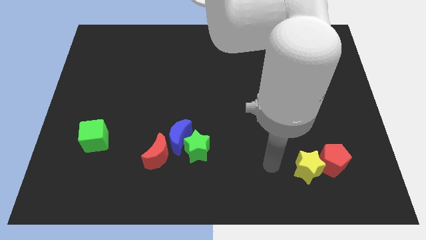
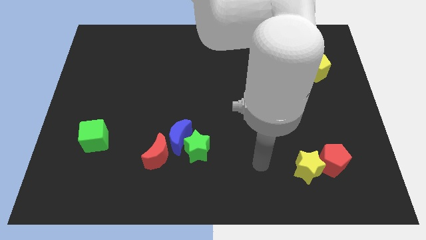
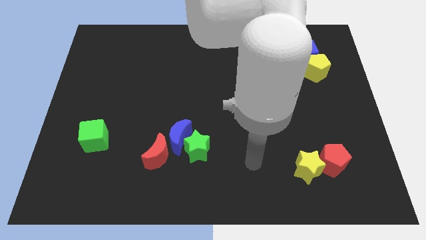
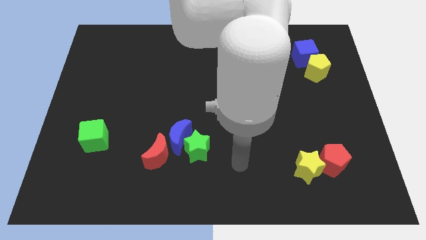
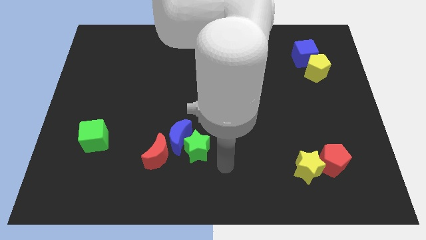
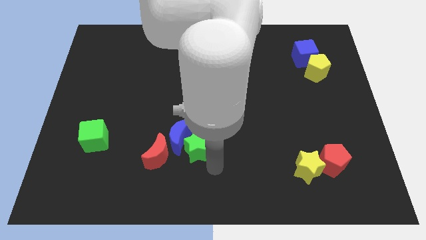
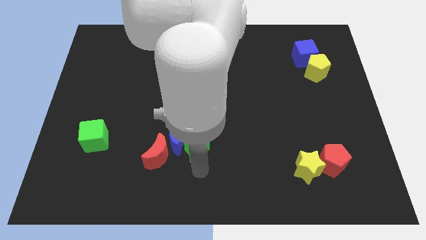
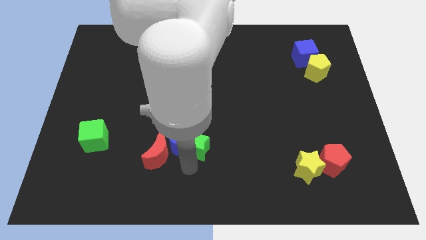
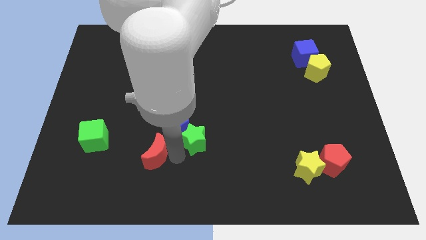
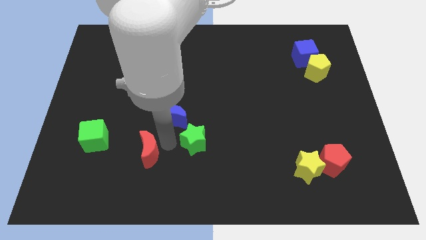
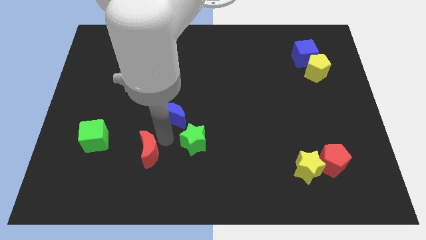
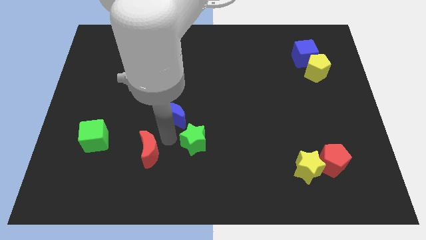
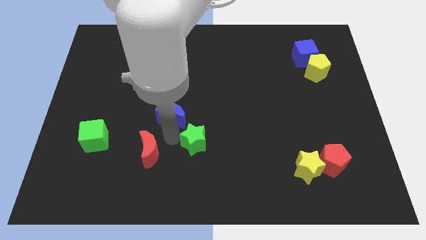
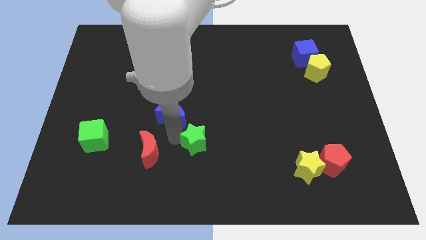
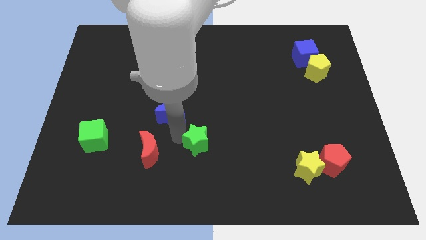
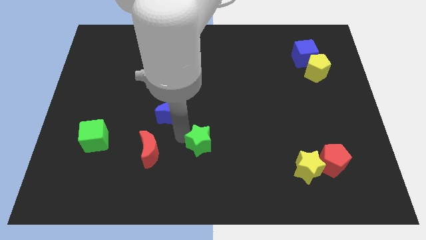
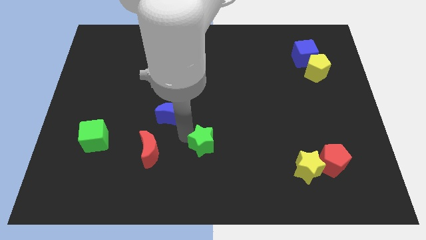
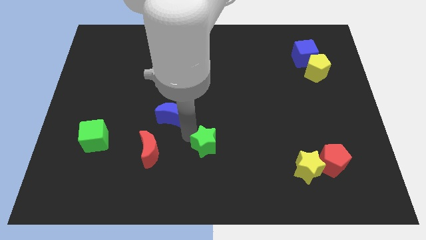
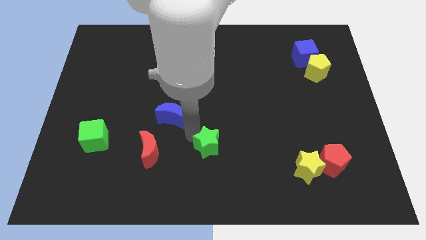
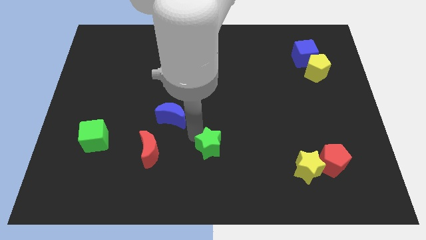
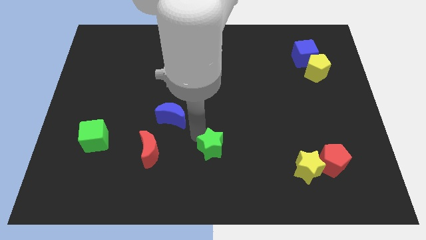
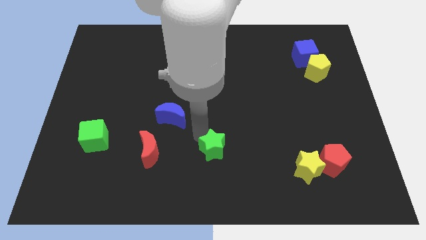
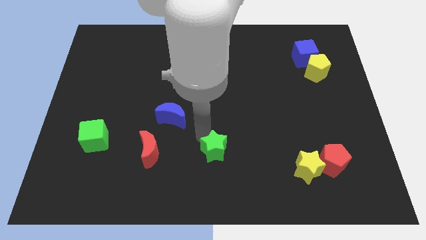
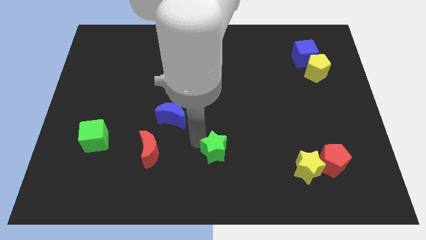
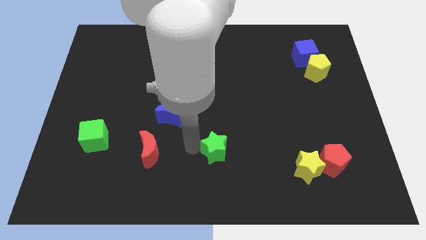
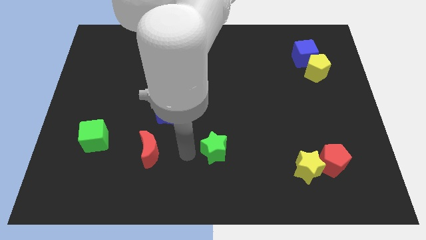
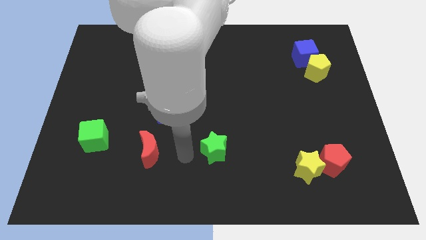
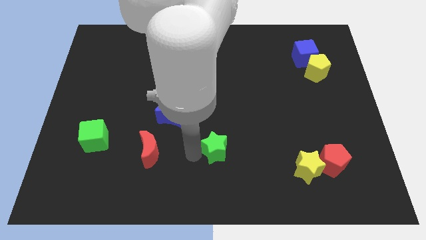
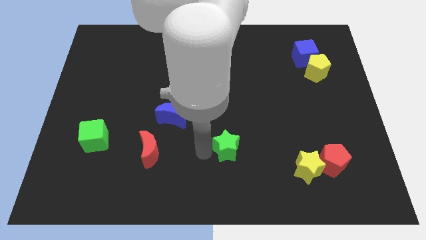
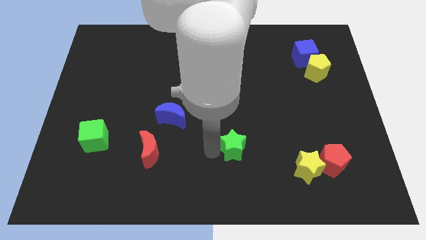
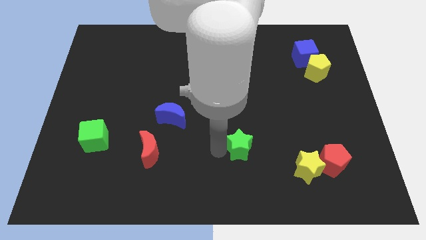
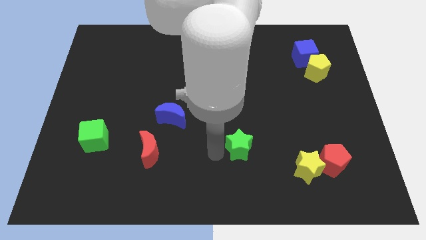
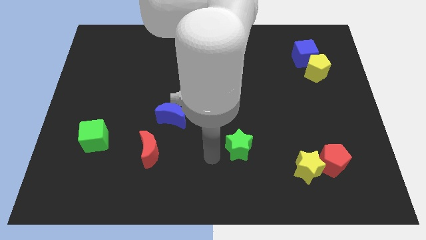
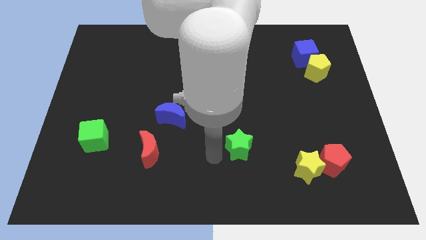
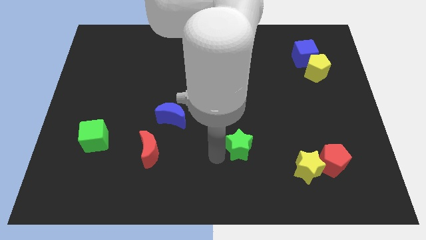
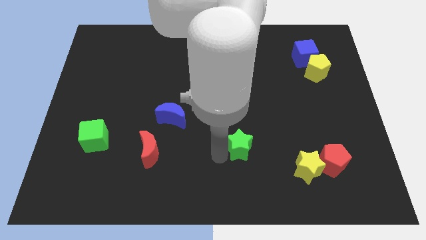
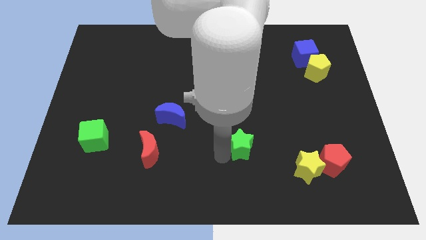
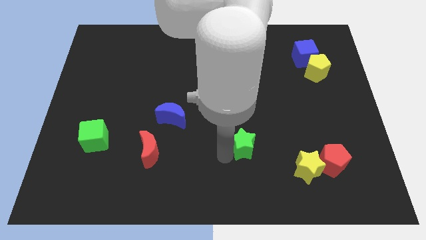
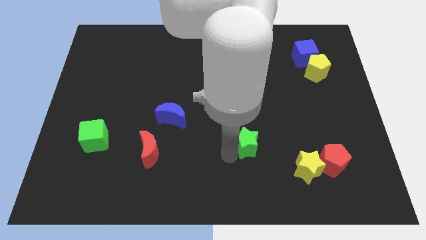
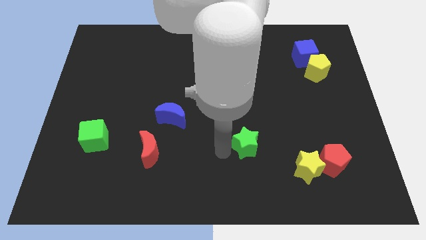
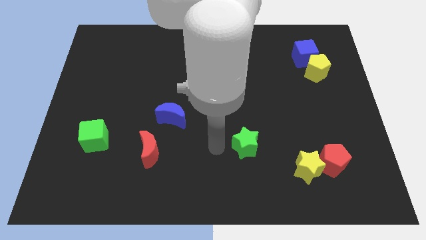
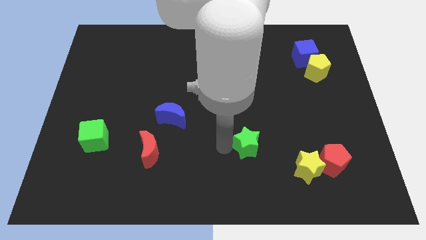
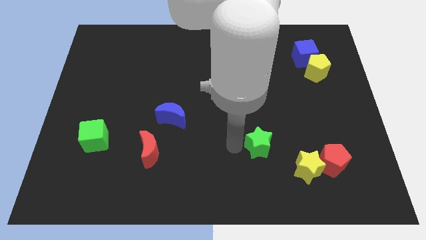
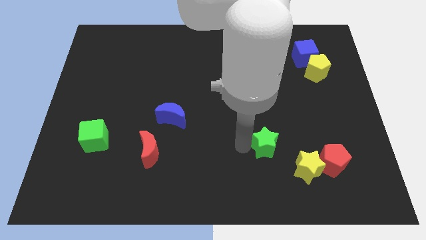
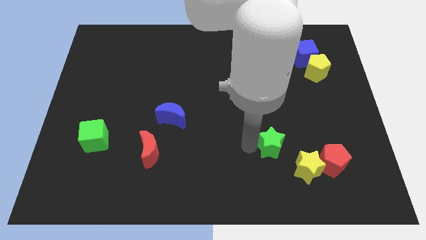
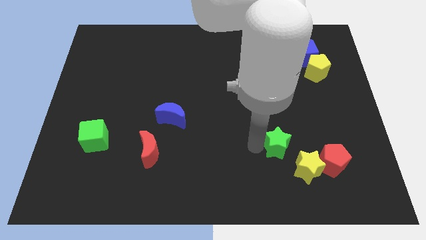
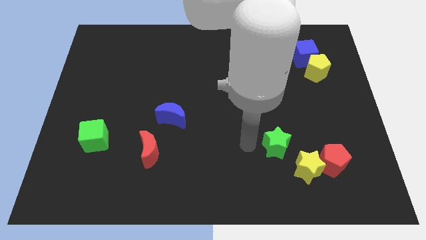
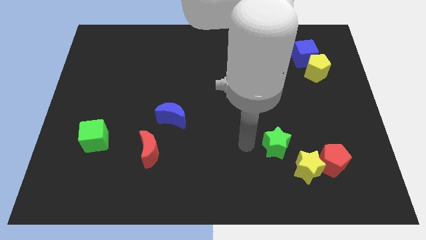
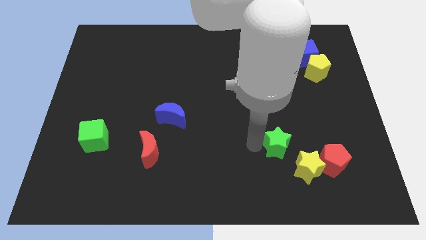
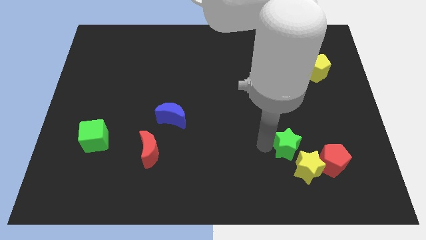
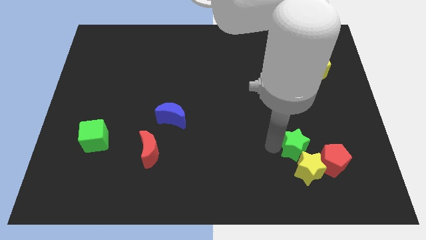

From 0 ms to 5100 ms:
move the green star to the right

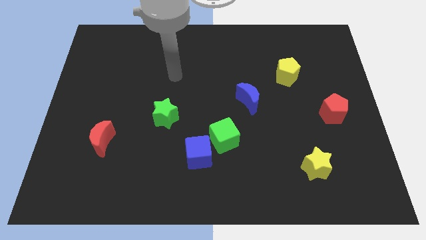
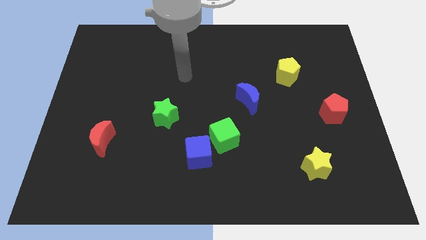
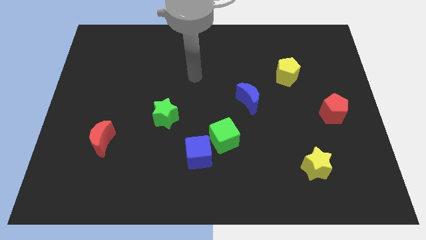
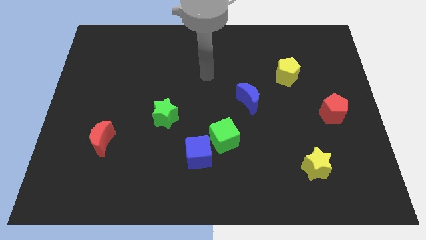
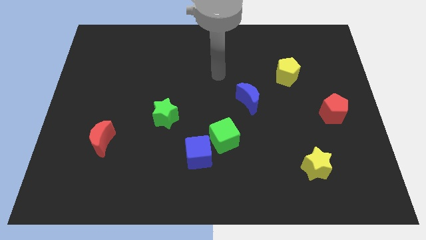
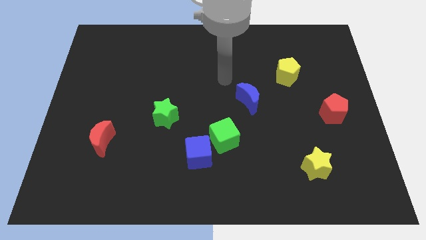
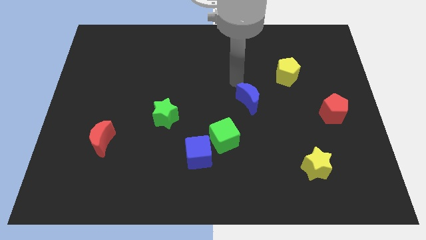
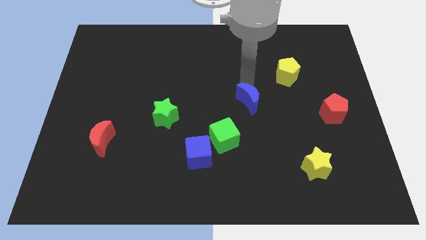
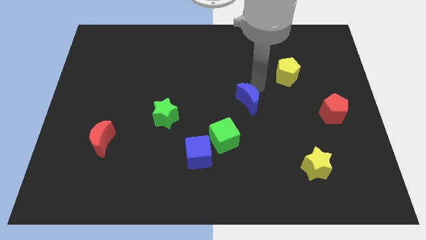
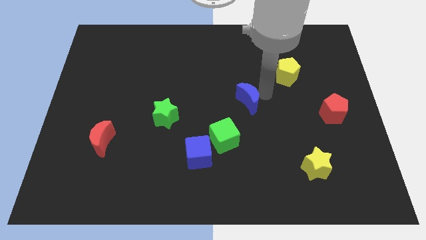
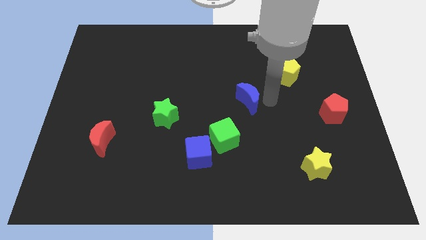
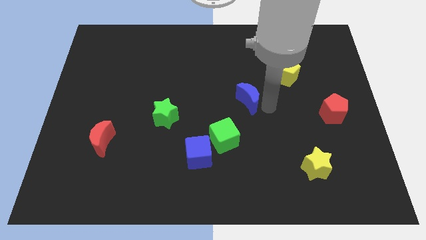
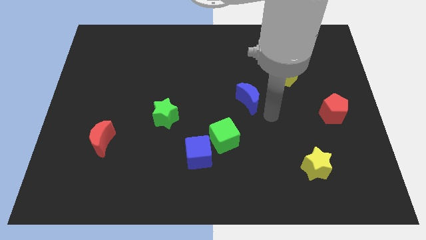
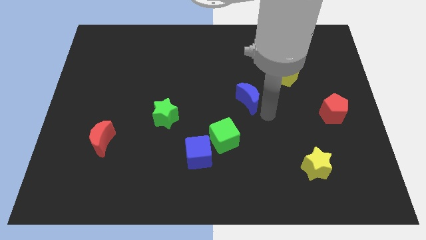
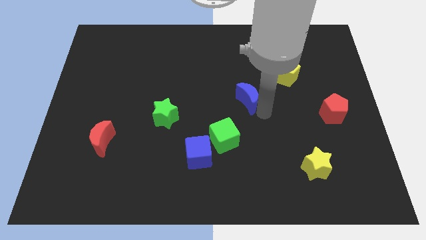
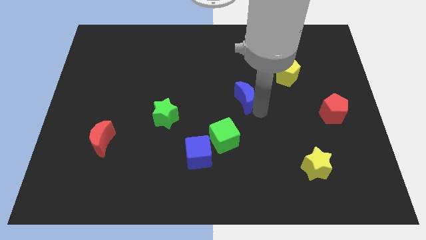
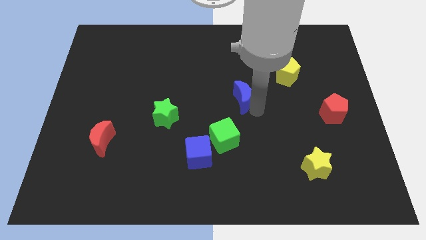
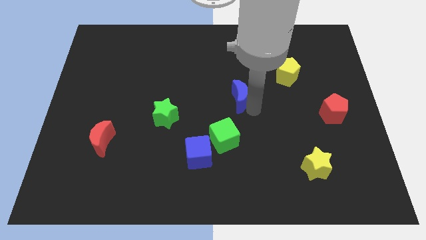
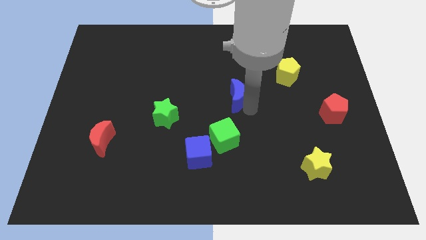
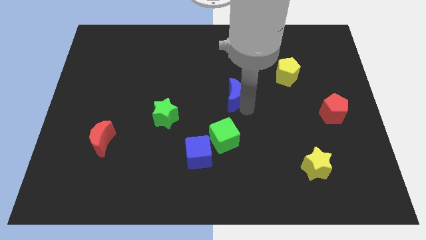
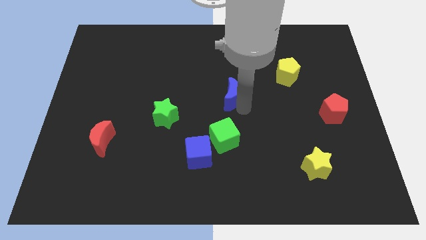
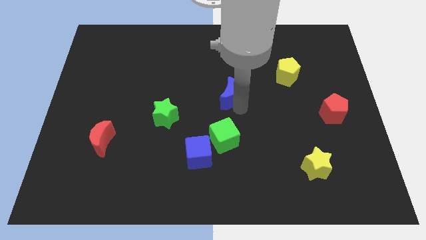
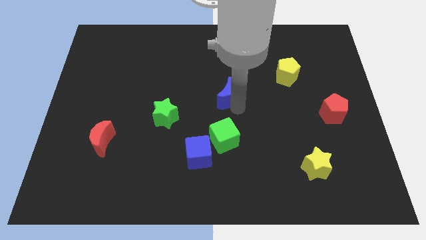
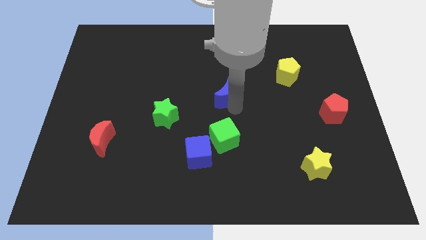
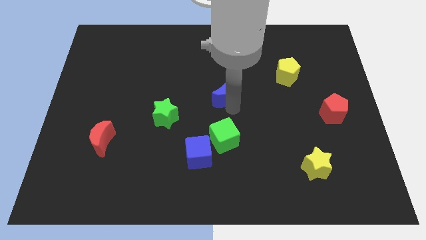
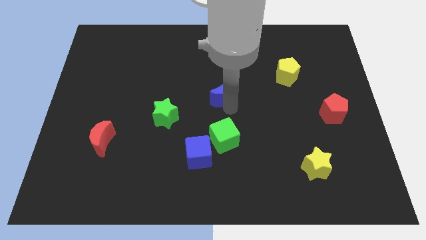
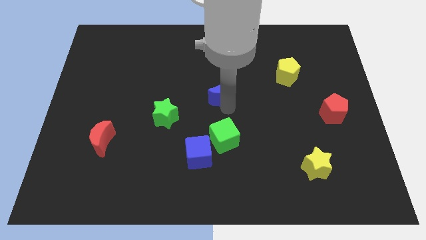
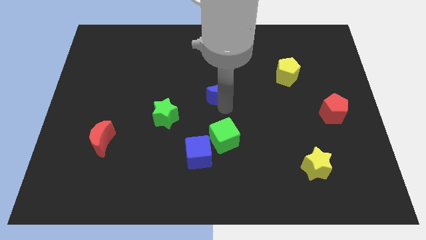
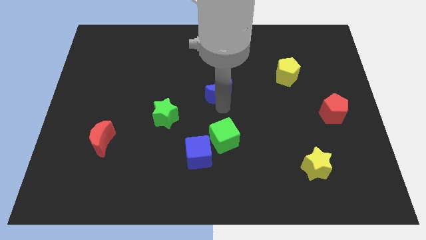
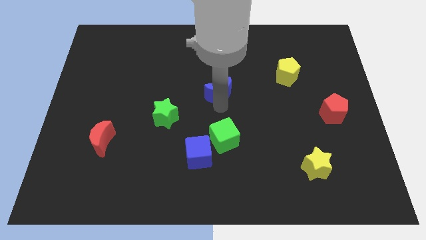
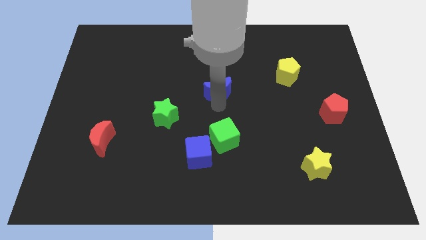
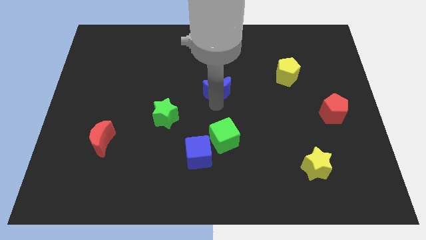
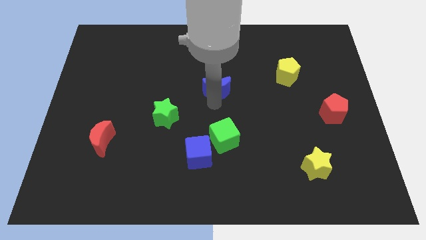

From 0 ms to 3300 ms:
move the blue moon a little bit up and then left

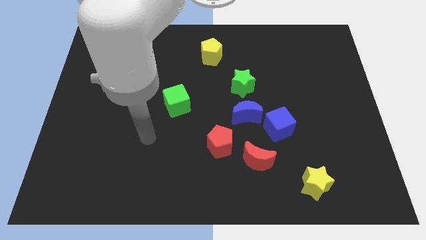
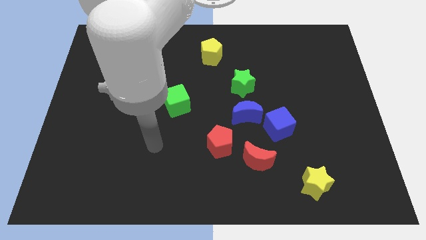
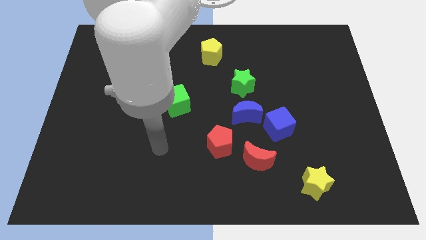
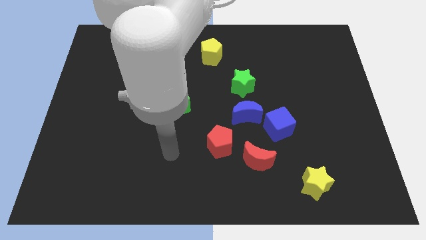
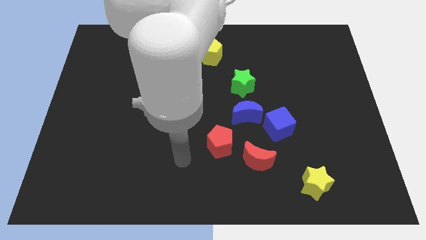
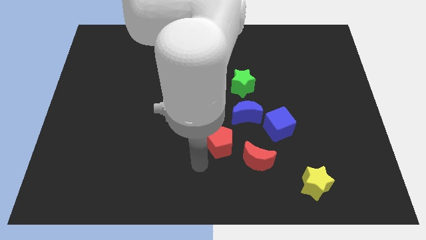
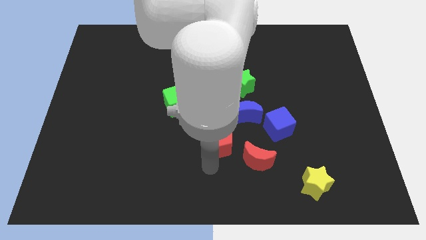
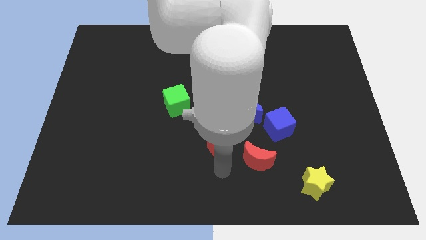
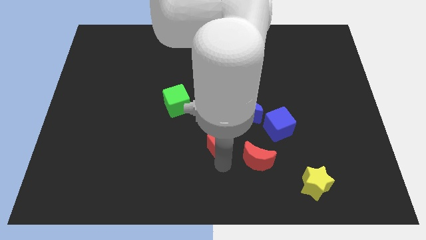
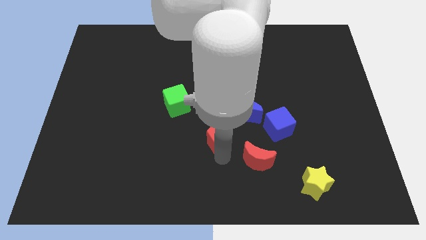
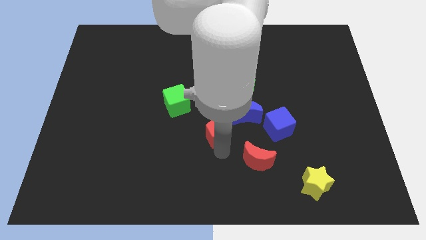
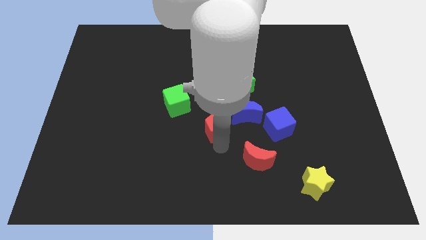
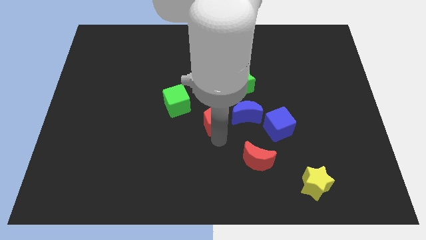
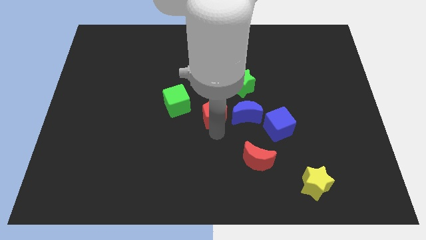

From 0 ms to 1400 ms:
slide the red pentagon upwards a little
